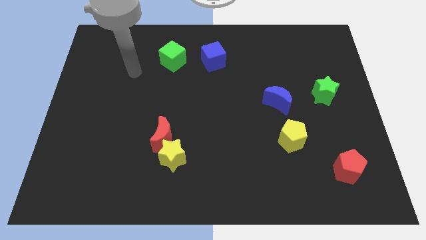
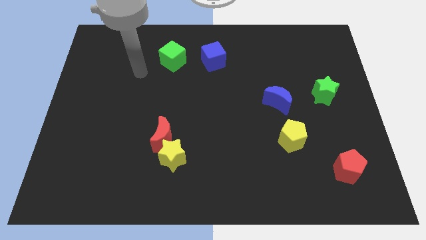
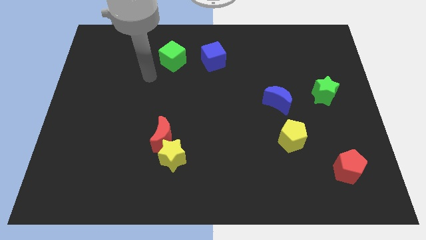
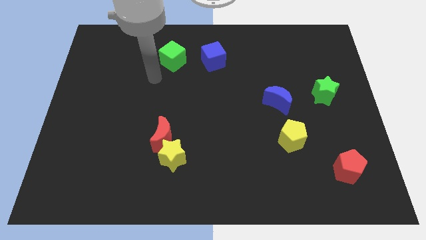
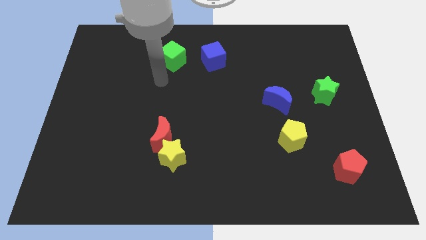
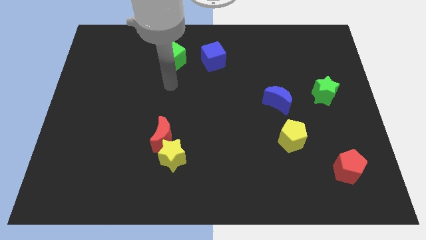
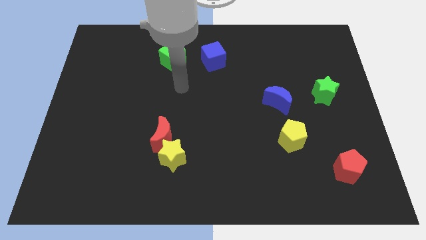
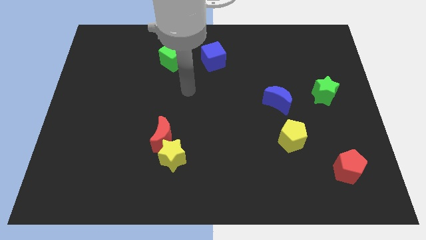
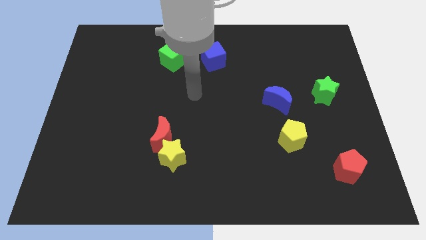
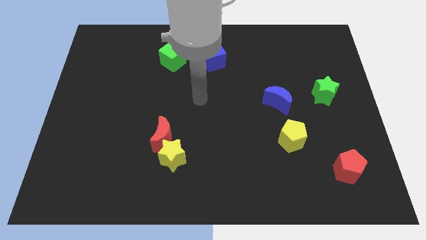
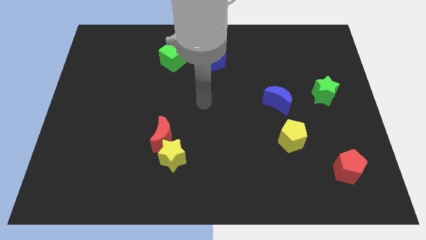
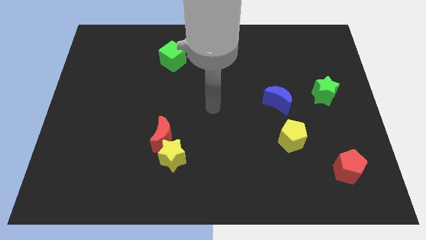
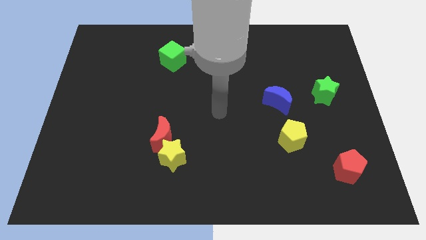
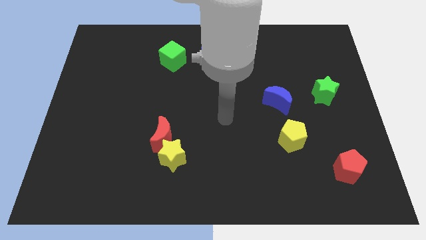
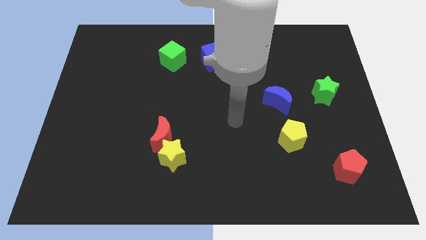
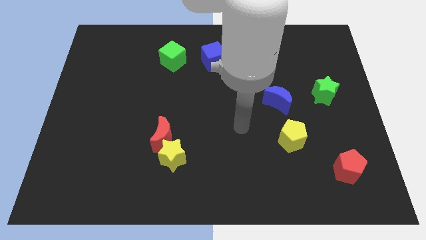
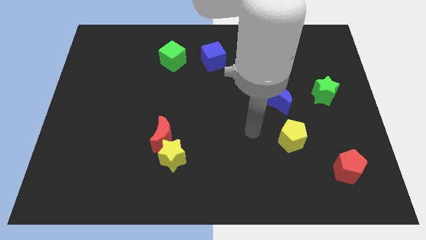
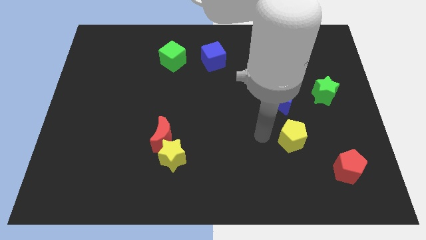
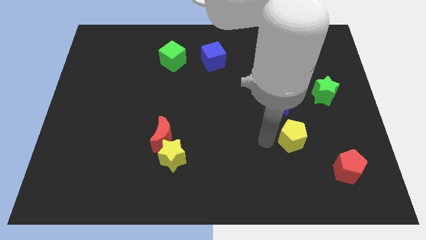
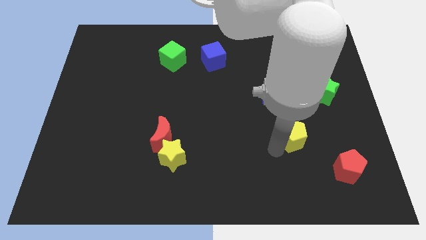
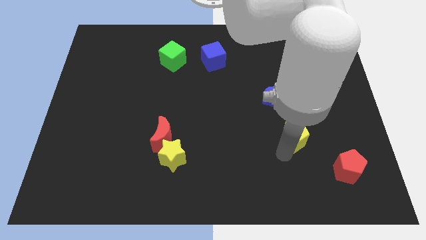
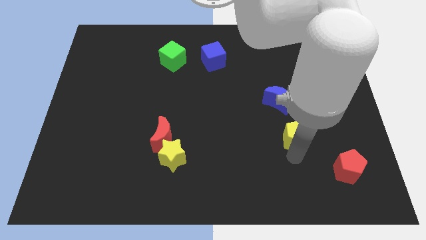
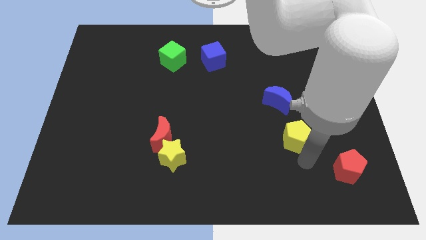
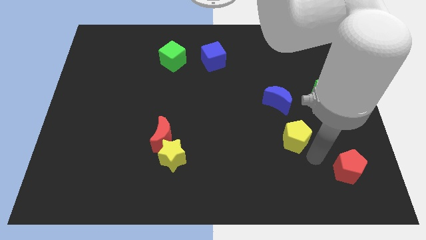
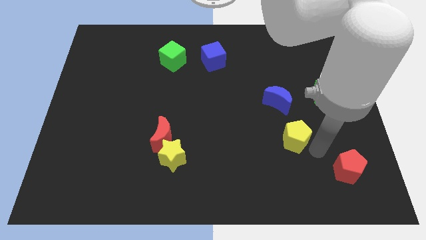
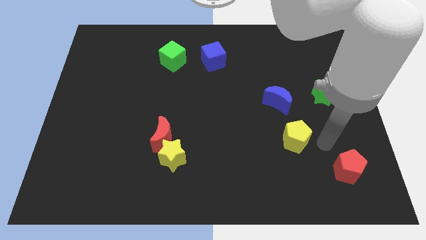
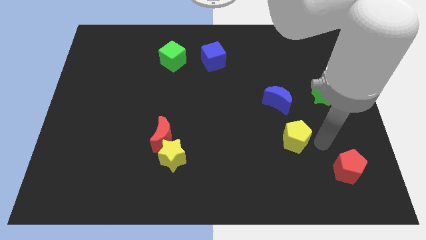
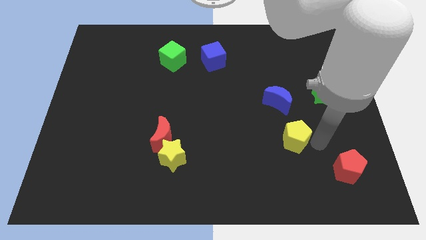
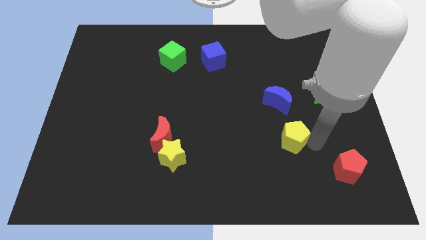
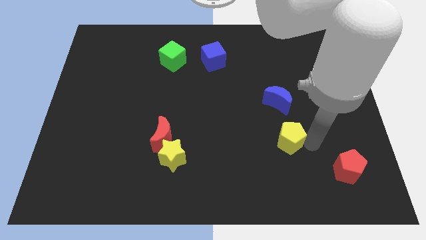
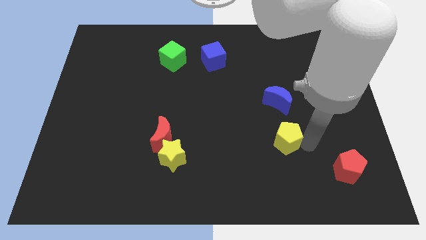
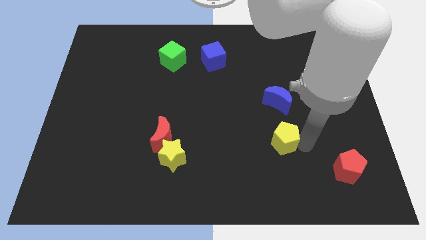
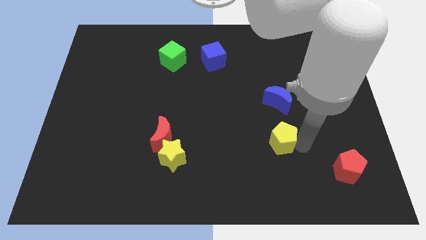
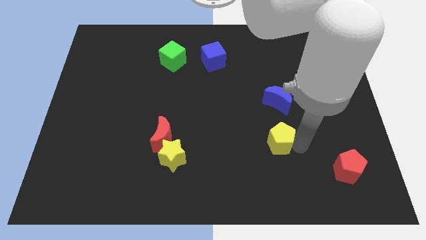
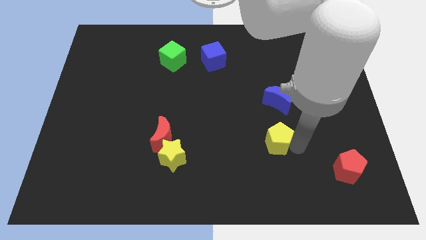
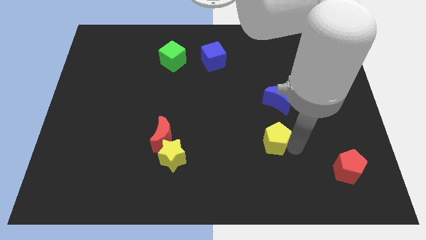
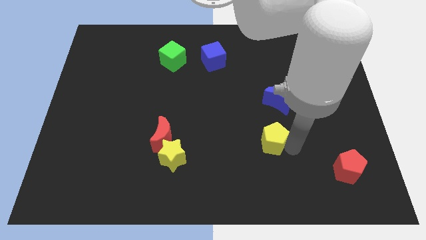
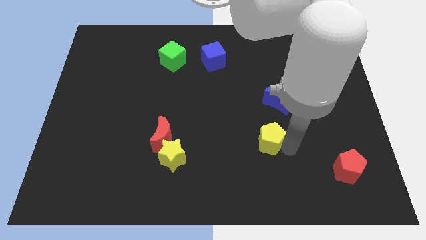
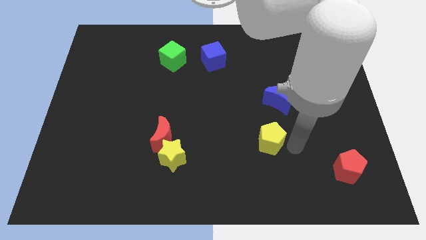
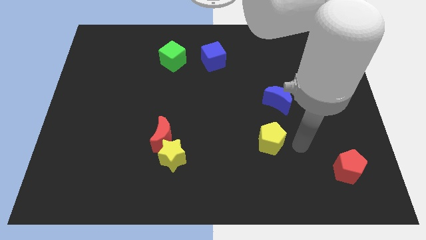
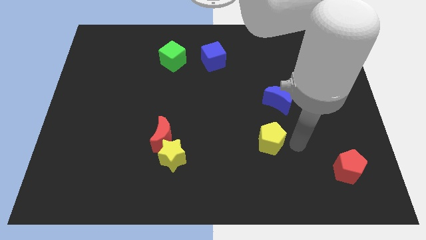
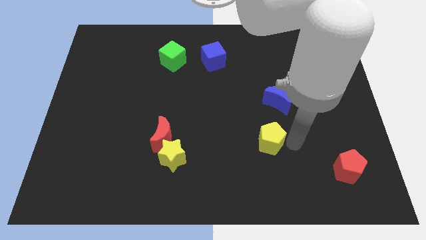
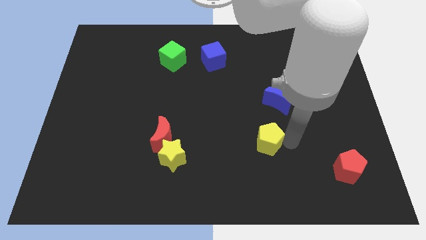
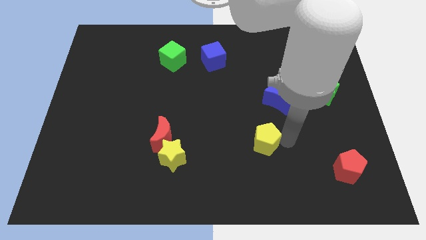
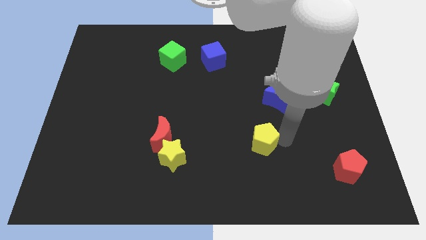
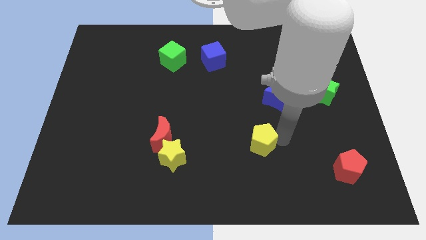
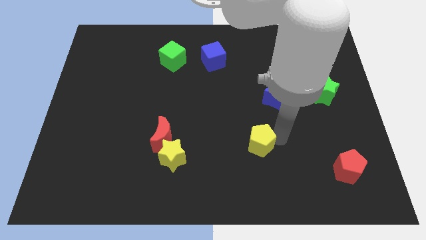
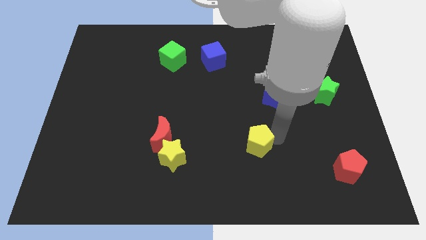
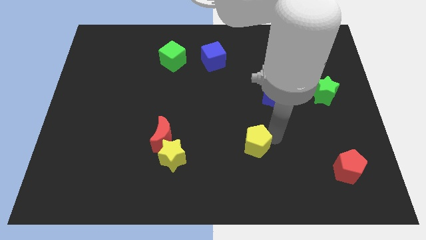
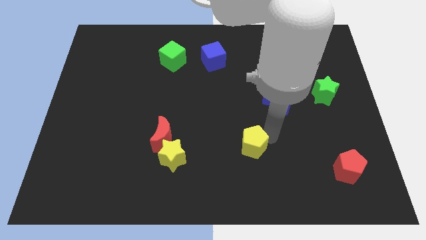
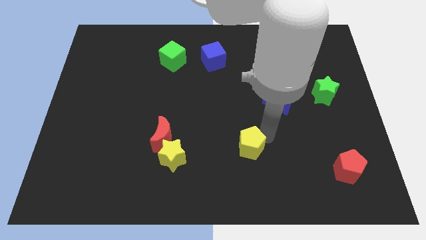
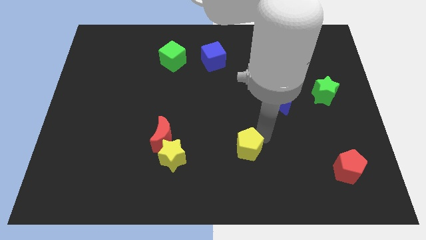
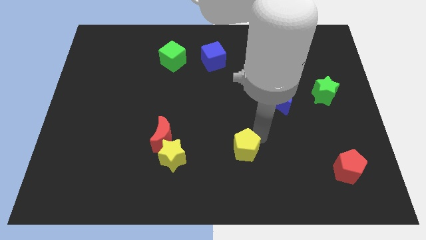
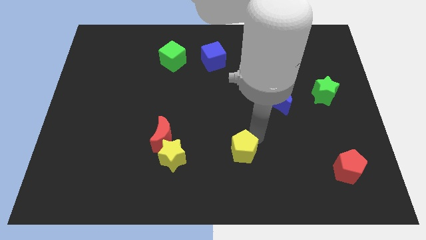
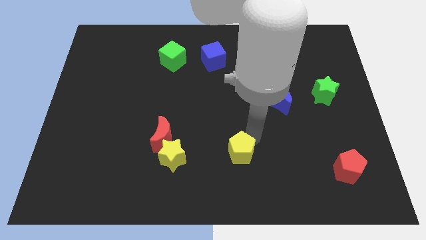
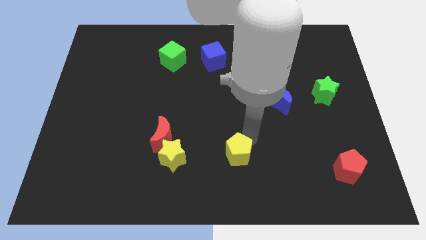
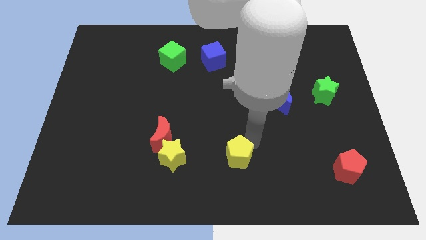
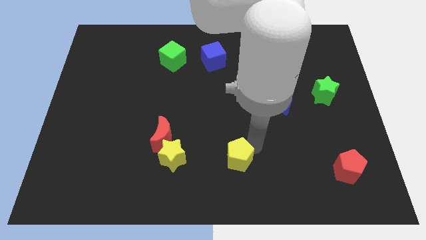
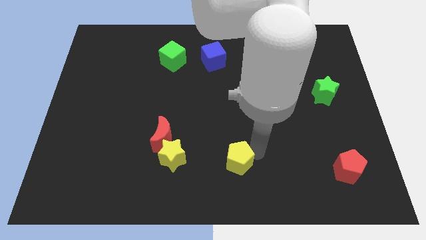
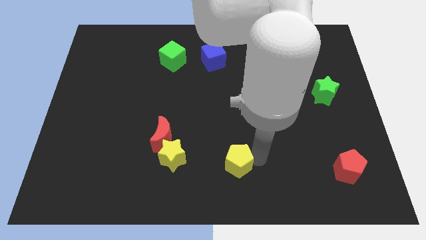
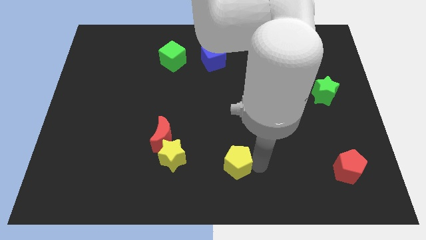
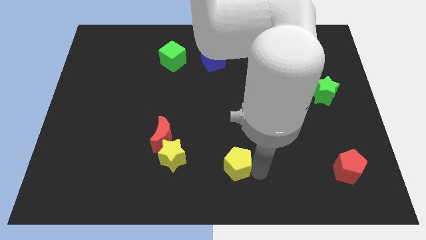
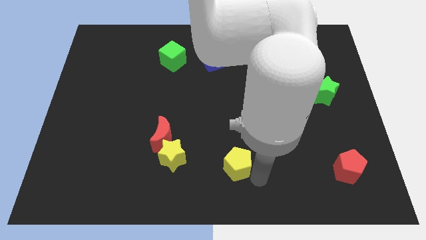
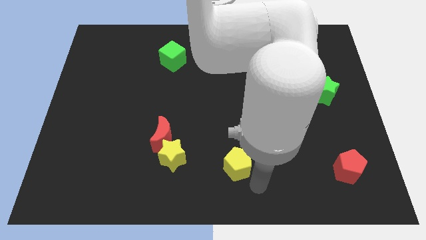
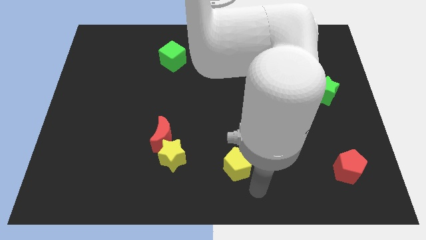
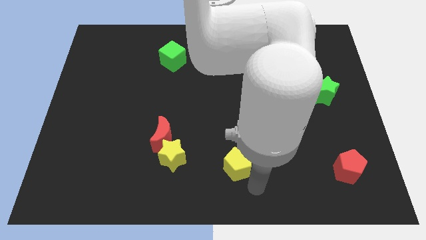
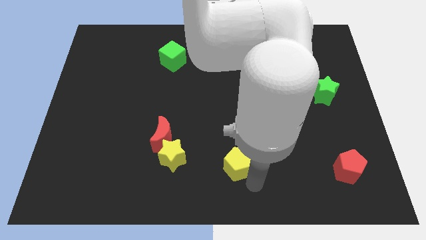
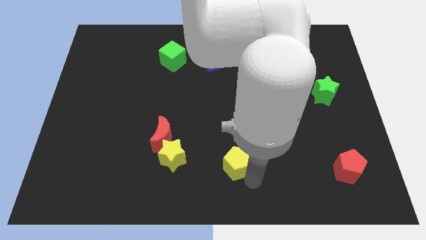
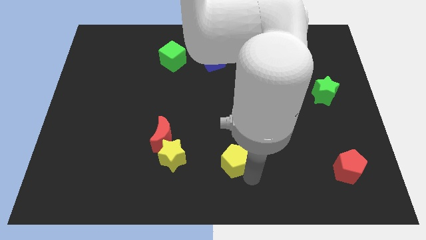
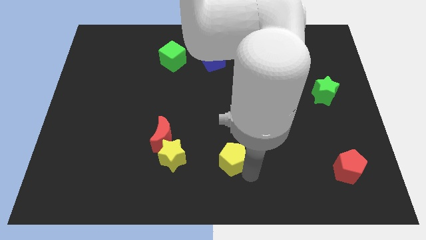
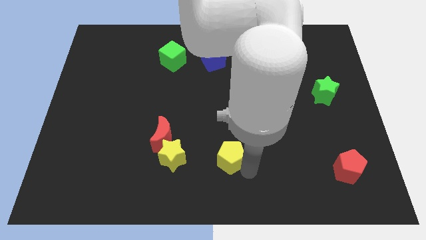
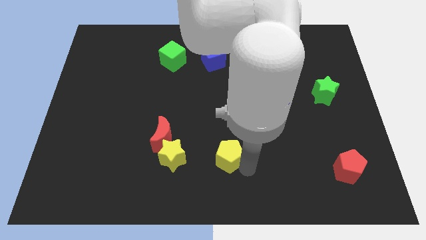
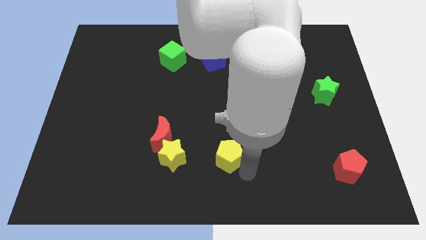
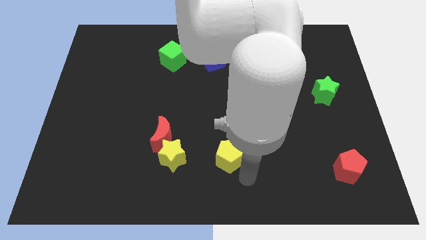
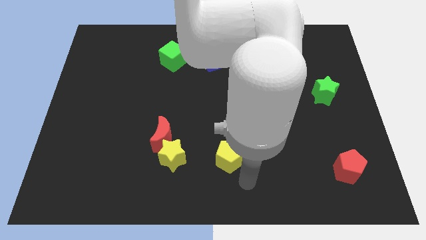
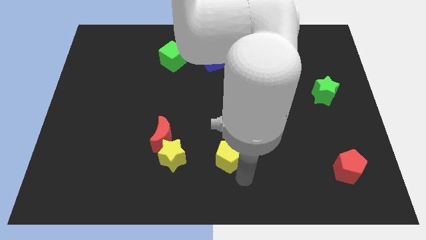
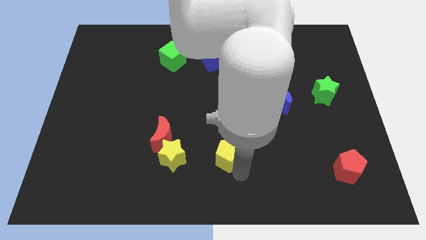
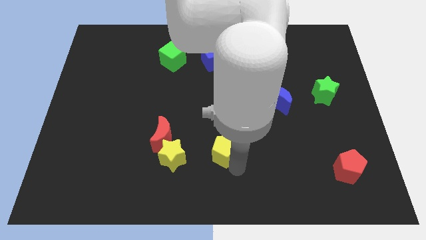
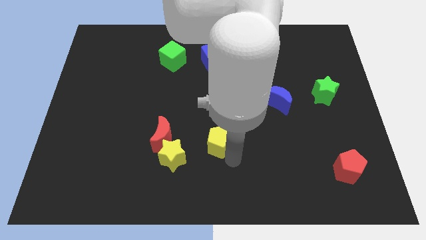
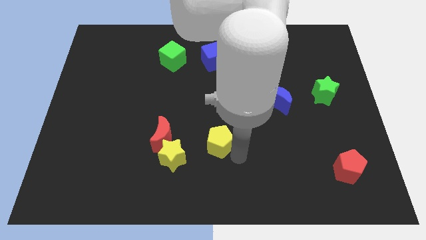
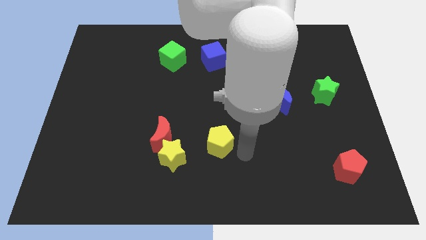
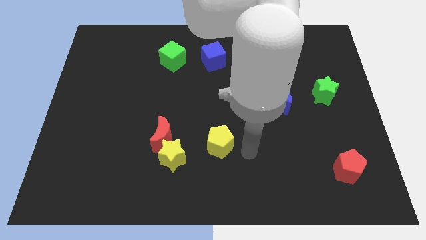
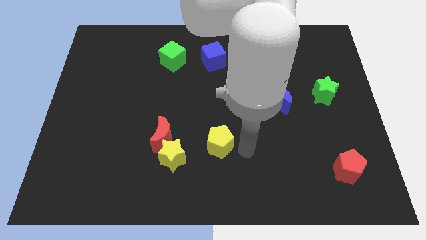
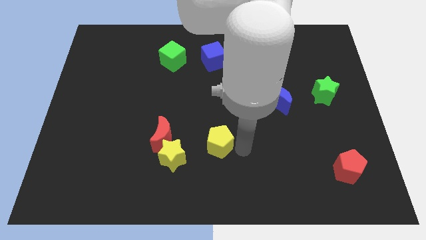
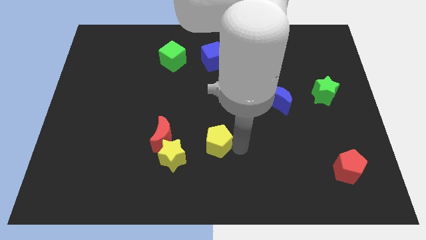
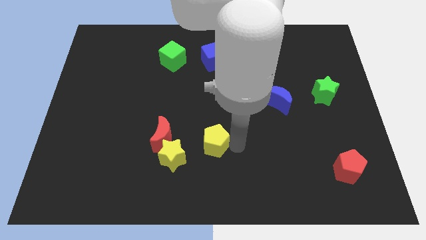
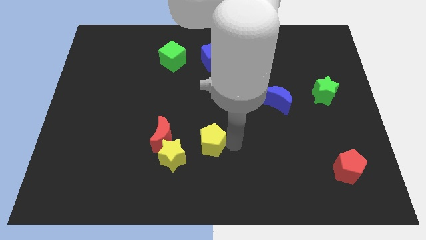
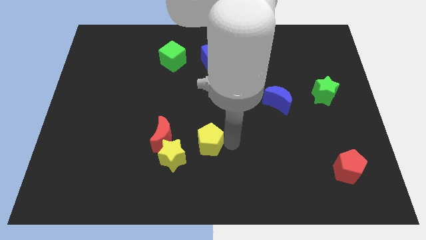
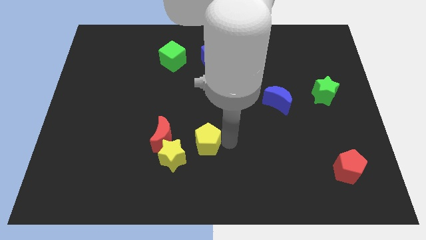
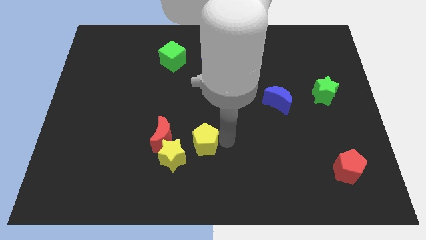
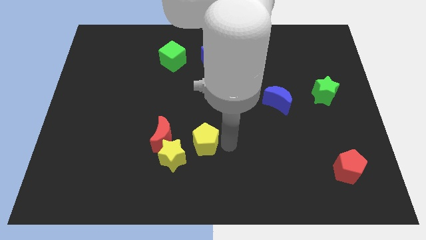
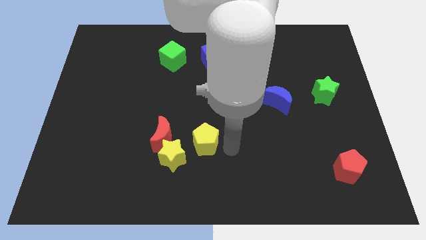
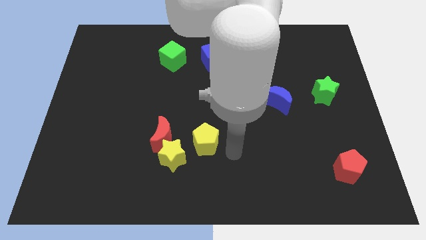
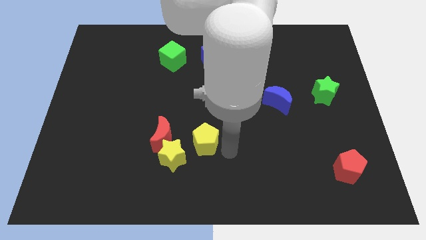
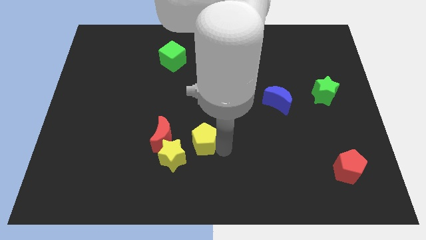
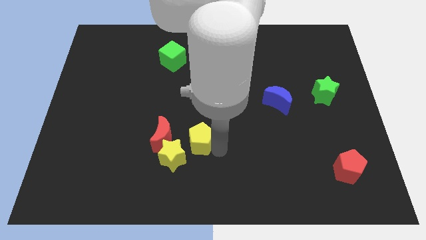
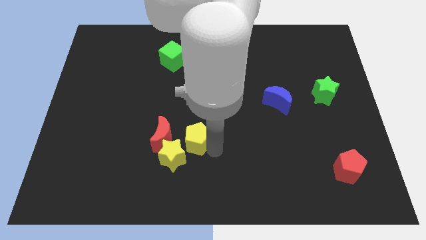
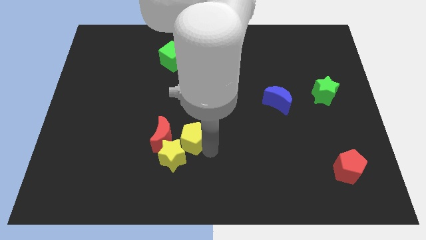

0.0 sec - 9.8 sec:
slide the yellow pentagon to the top side of the yellow star
